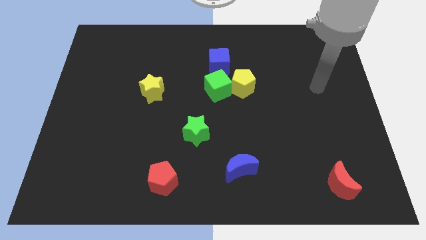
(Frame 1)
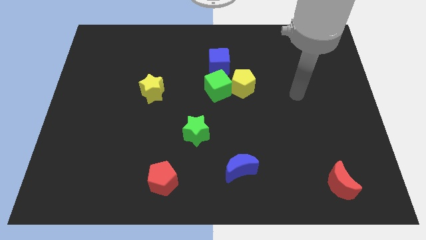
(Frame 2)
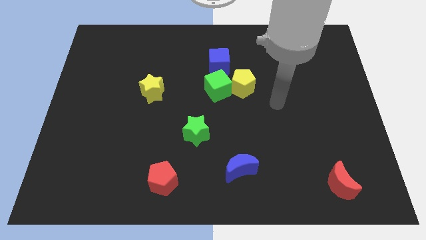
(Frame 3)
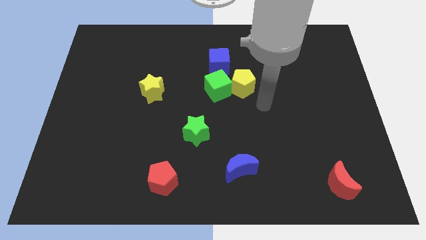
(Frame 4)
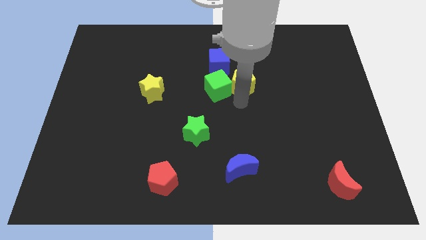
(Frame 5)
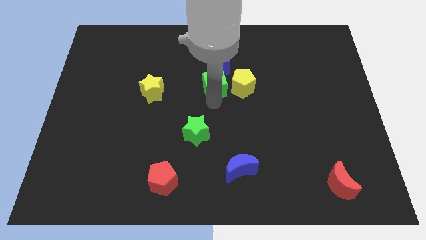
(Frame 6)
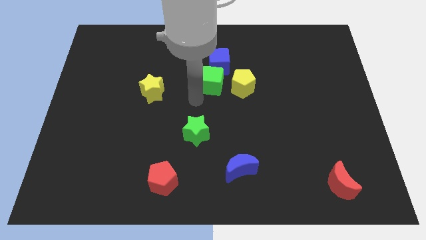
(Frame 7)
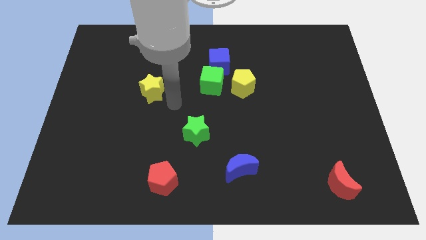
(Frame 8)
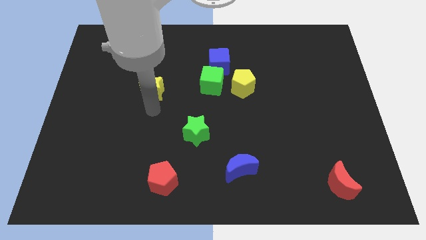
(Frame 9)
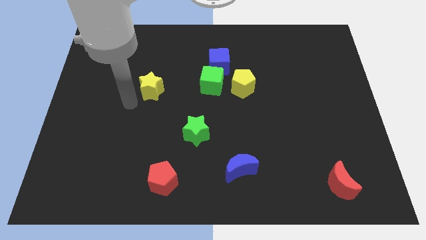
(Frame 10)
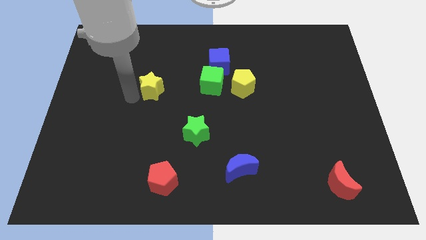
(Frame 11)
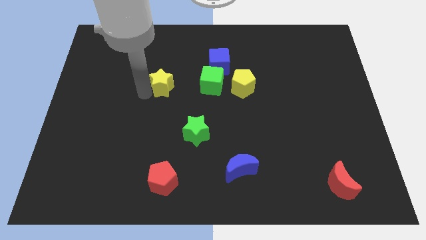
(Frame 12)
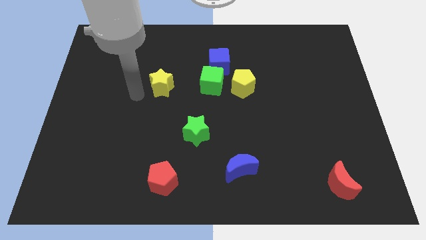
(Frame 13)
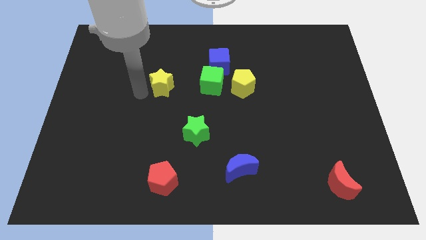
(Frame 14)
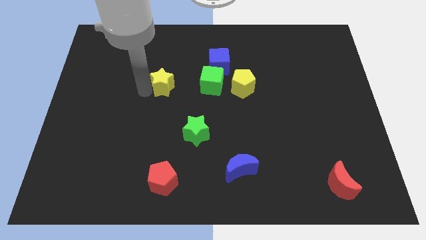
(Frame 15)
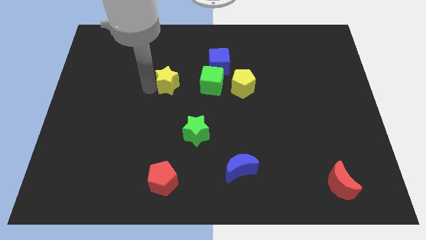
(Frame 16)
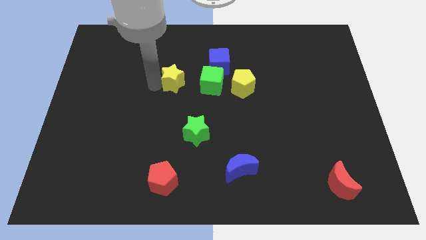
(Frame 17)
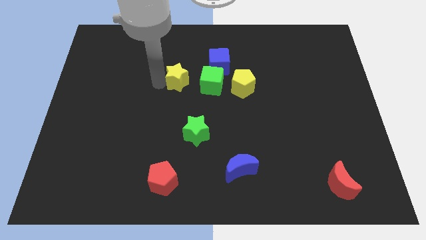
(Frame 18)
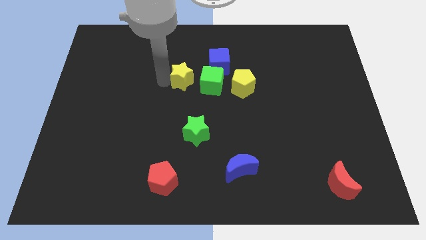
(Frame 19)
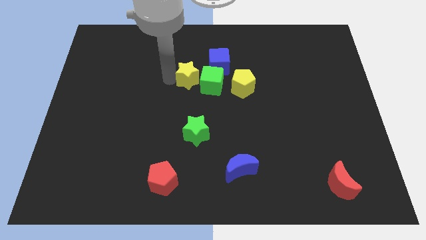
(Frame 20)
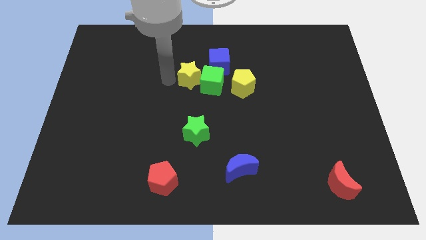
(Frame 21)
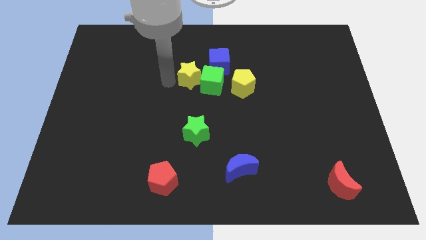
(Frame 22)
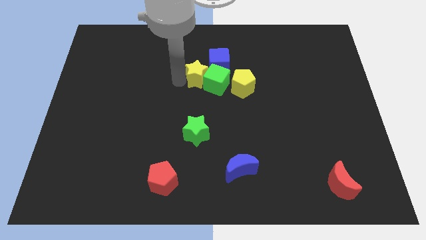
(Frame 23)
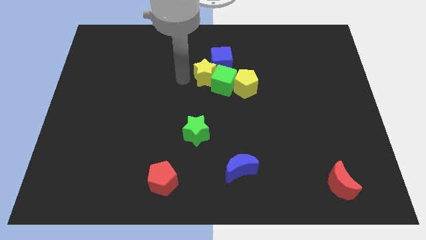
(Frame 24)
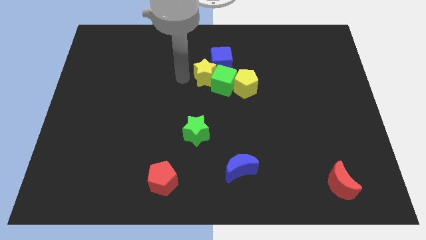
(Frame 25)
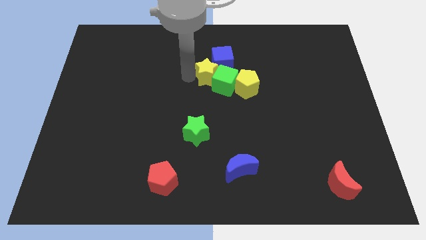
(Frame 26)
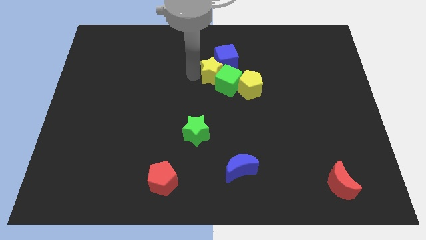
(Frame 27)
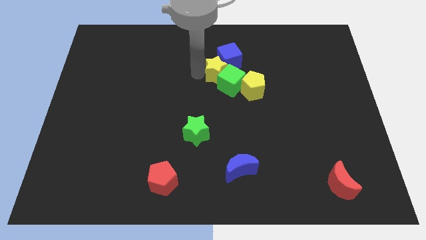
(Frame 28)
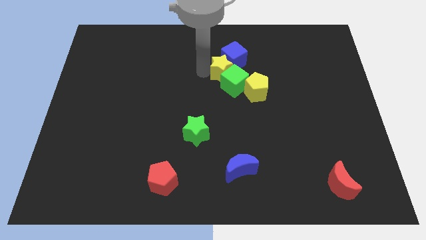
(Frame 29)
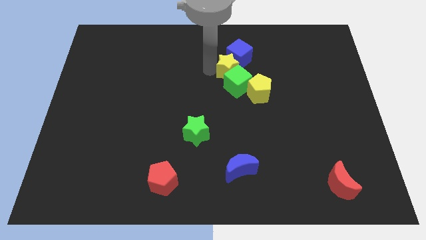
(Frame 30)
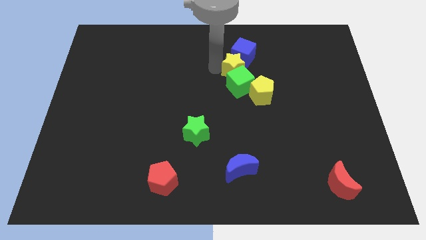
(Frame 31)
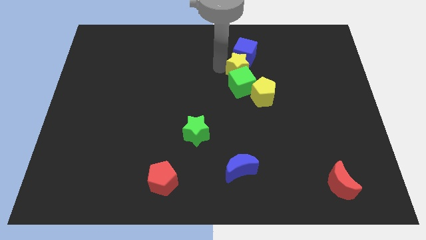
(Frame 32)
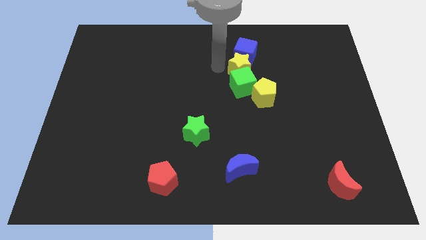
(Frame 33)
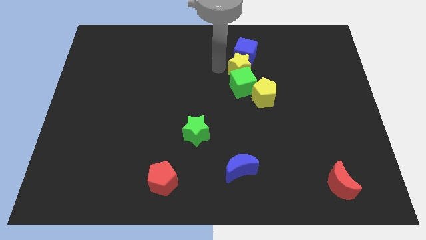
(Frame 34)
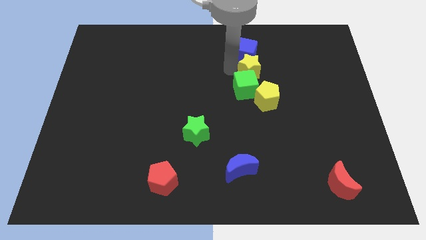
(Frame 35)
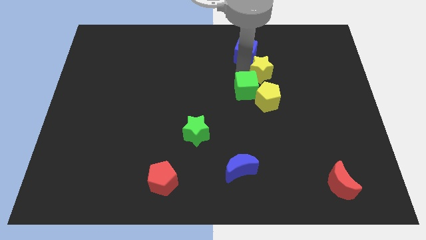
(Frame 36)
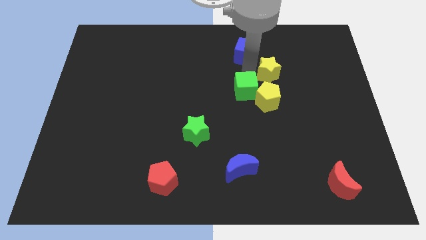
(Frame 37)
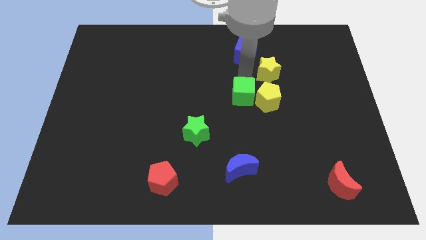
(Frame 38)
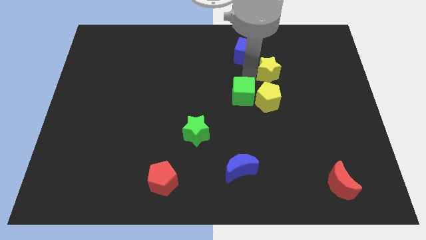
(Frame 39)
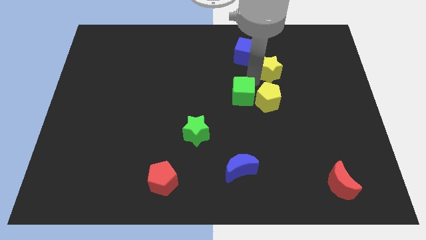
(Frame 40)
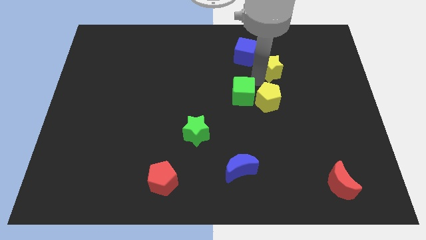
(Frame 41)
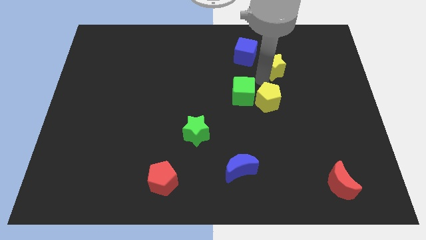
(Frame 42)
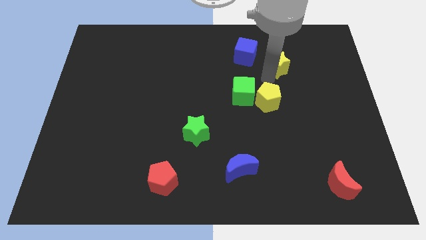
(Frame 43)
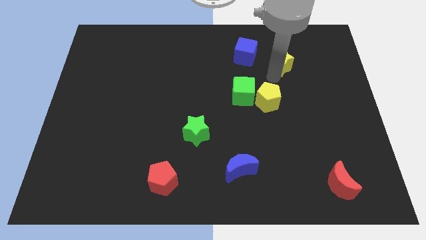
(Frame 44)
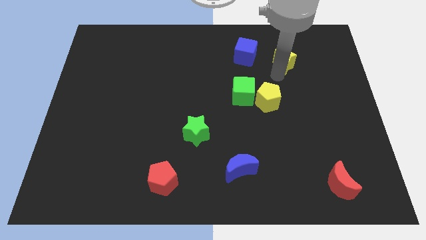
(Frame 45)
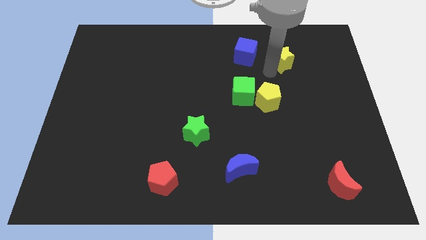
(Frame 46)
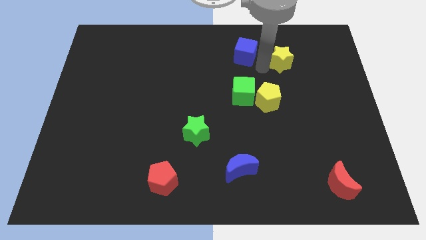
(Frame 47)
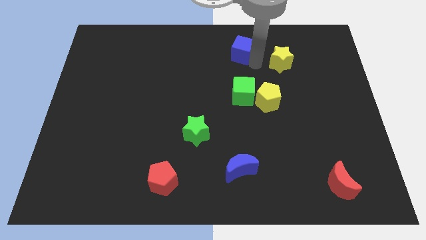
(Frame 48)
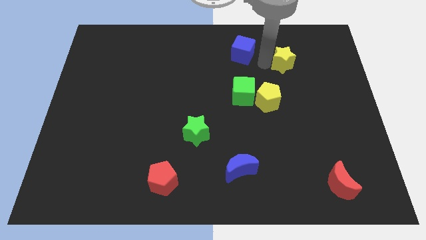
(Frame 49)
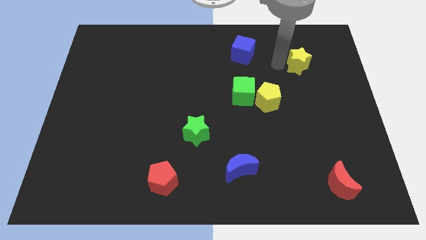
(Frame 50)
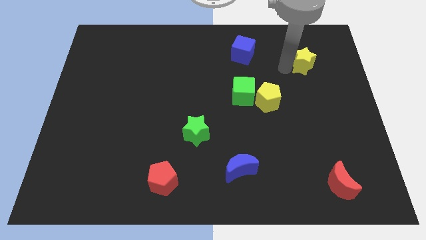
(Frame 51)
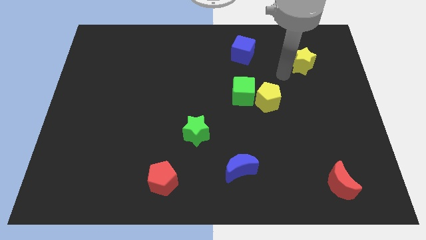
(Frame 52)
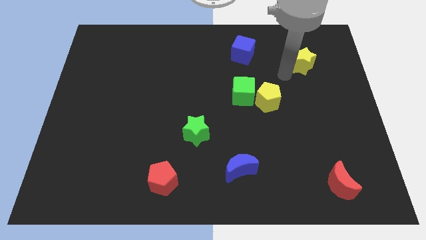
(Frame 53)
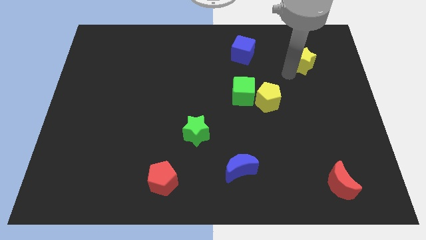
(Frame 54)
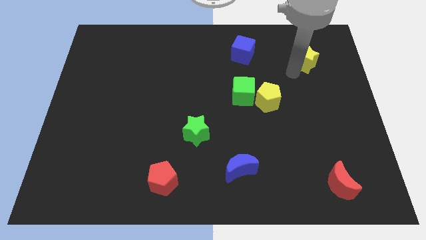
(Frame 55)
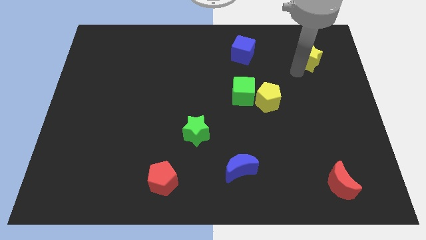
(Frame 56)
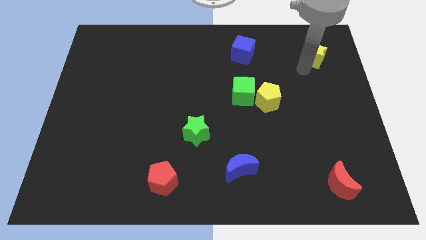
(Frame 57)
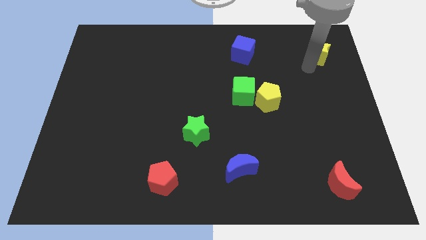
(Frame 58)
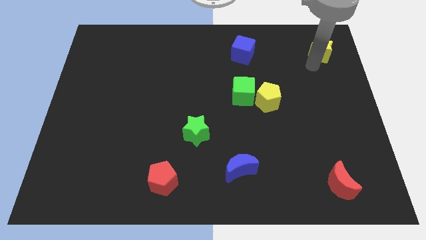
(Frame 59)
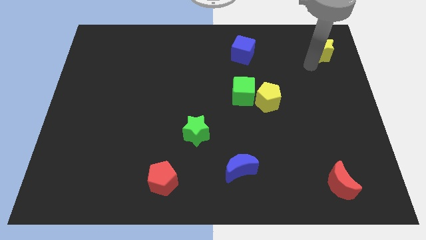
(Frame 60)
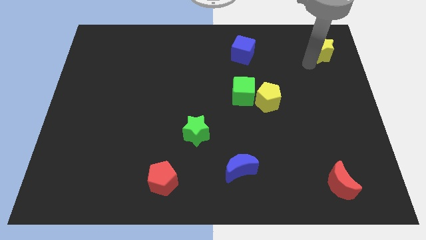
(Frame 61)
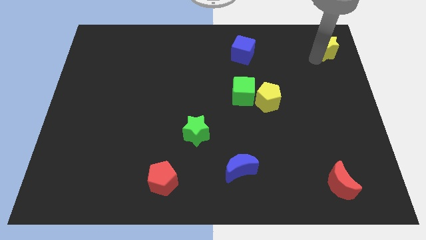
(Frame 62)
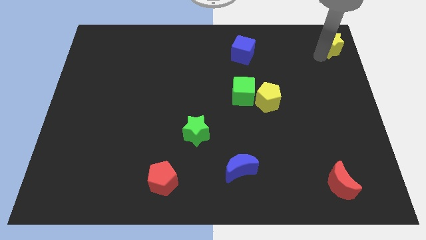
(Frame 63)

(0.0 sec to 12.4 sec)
put the yellow star to the upper right corner
